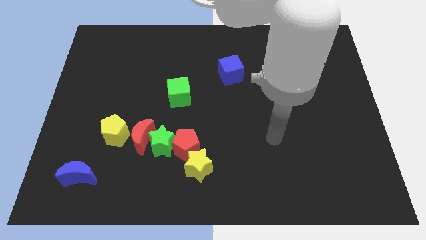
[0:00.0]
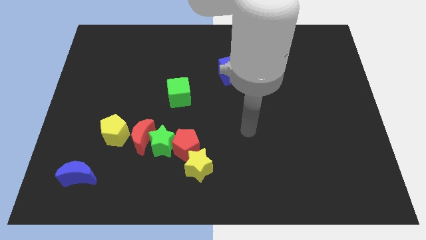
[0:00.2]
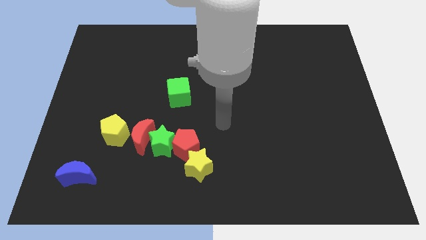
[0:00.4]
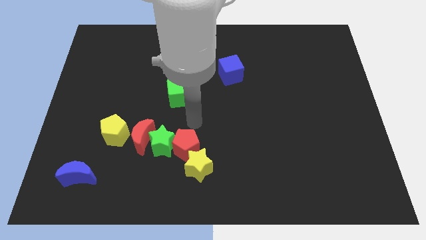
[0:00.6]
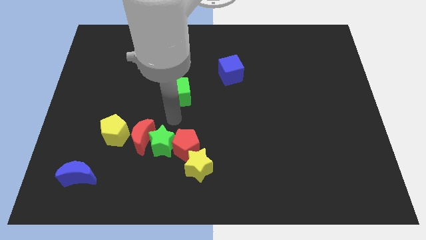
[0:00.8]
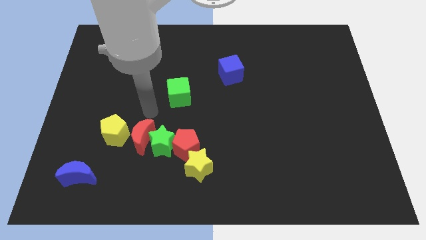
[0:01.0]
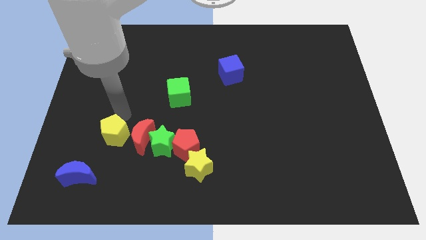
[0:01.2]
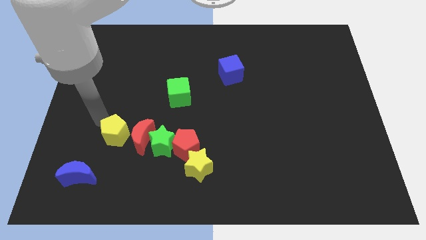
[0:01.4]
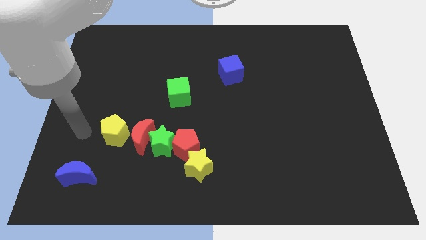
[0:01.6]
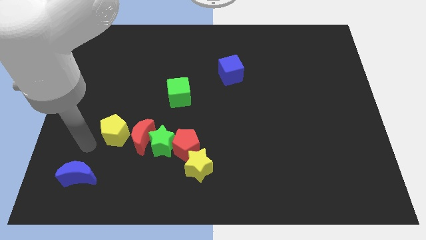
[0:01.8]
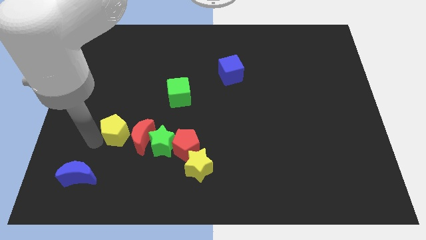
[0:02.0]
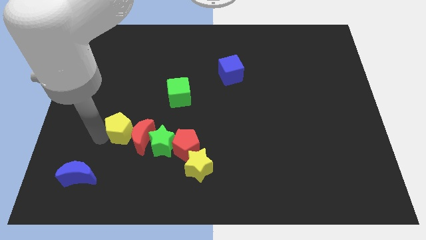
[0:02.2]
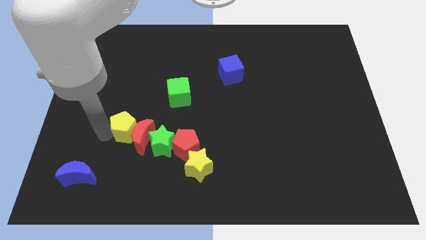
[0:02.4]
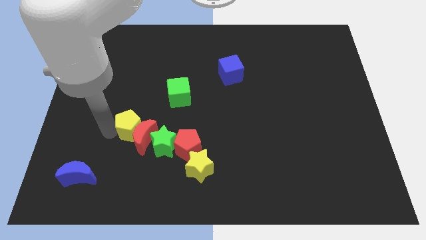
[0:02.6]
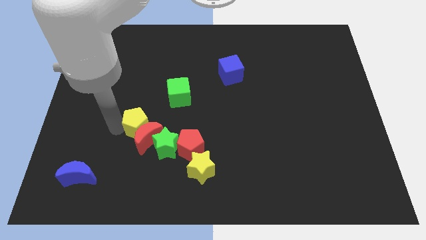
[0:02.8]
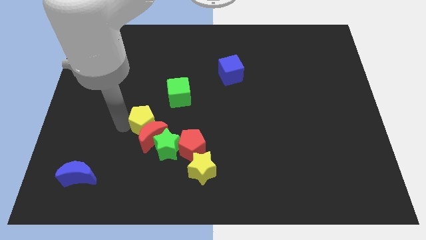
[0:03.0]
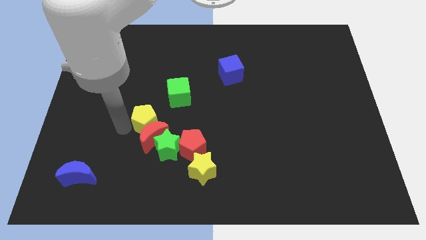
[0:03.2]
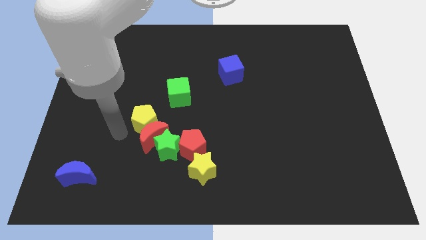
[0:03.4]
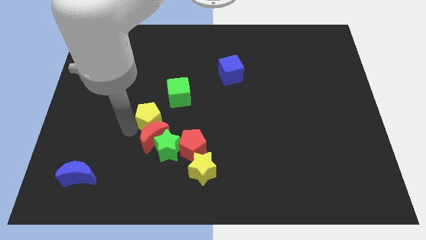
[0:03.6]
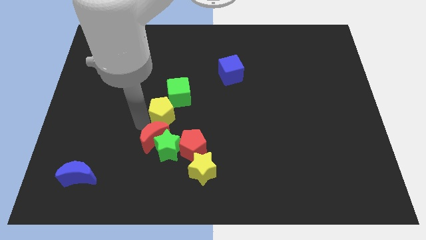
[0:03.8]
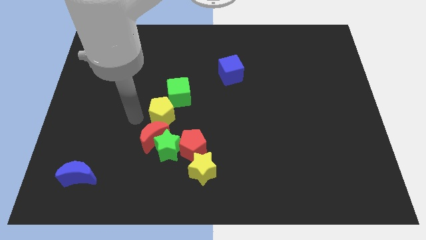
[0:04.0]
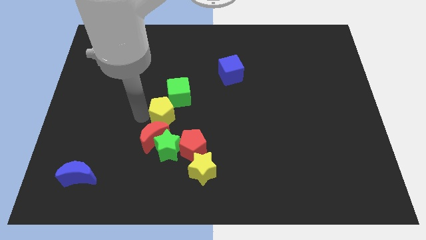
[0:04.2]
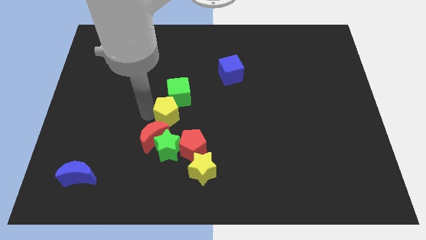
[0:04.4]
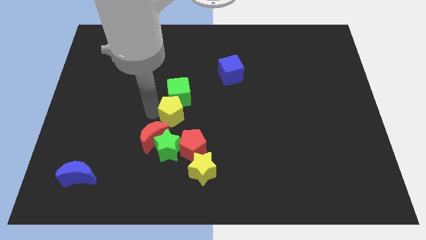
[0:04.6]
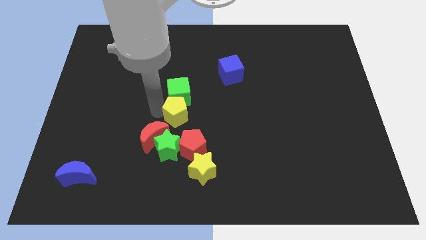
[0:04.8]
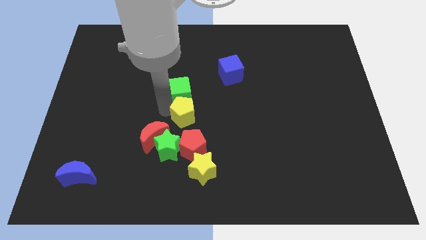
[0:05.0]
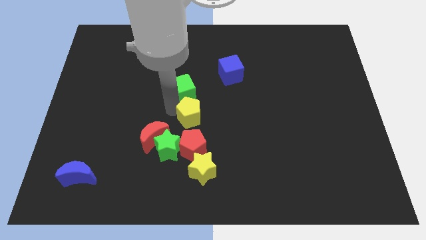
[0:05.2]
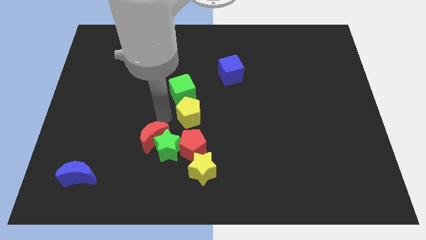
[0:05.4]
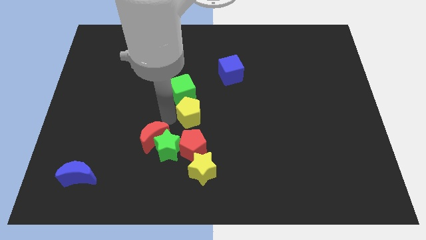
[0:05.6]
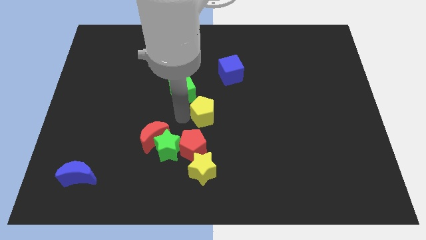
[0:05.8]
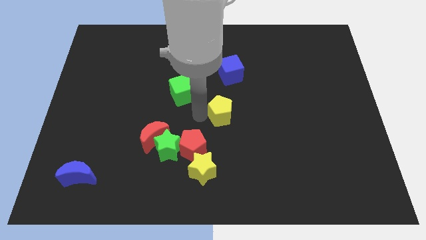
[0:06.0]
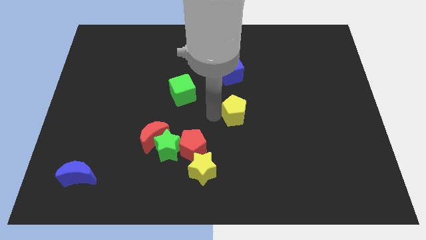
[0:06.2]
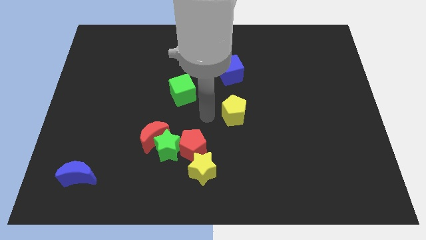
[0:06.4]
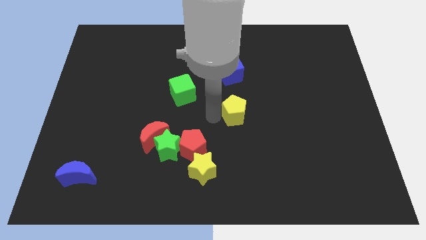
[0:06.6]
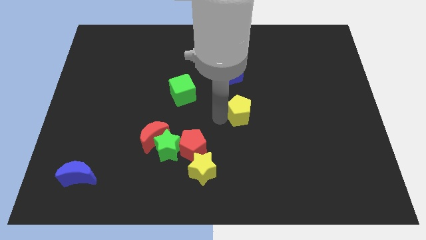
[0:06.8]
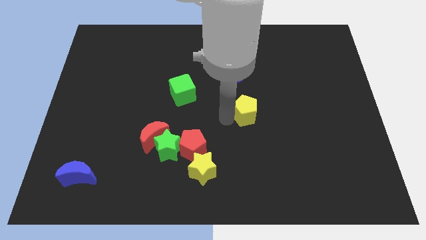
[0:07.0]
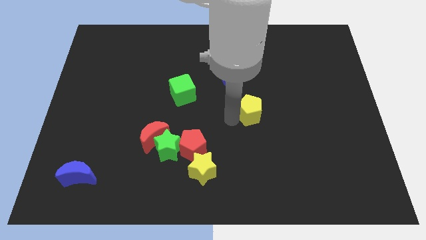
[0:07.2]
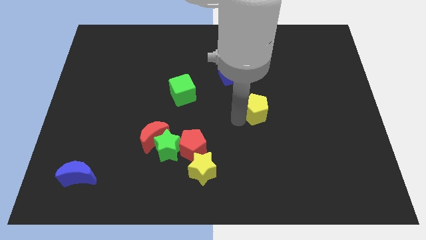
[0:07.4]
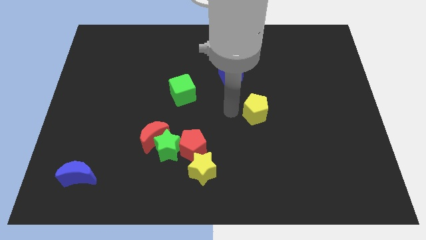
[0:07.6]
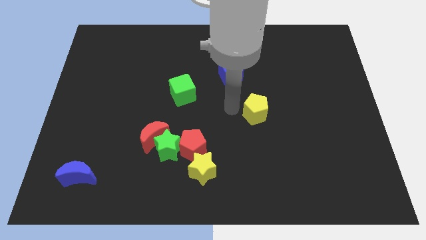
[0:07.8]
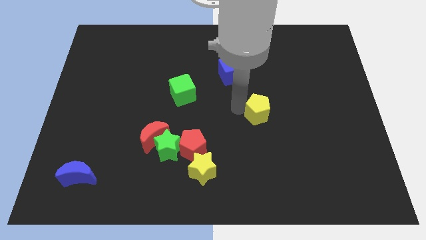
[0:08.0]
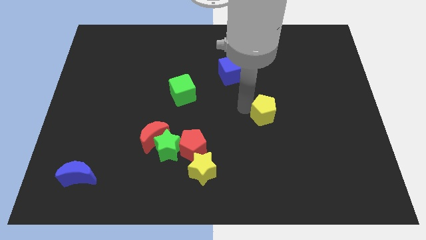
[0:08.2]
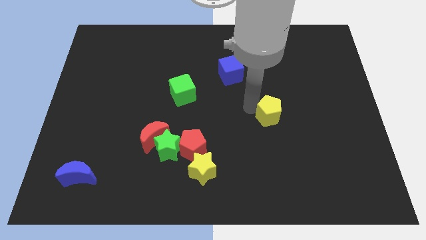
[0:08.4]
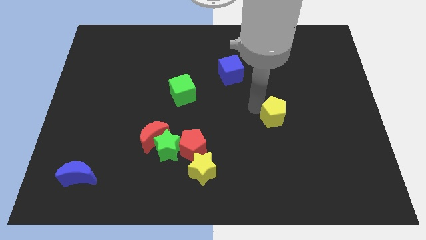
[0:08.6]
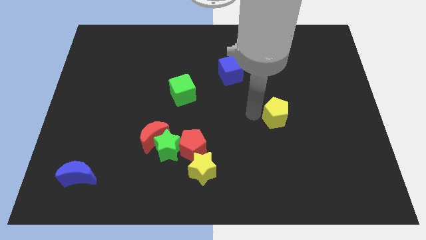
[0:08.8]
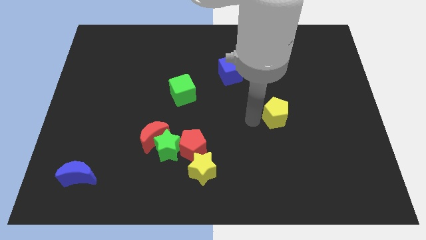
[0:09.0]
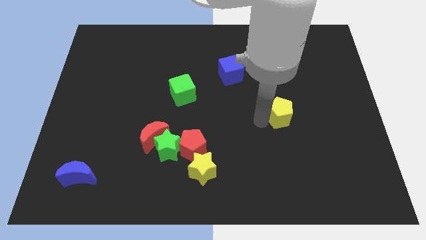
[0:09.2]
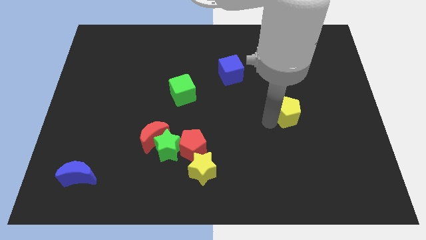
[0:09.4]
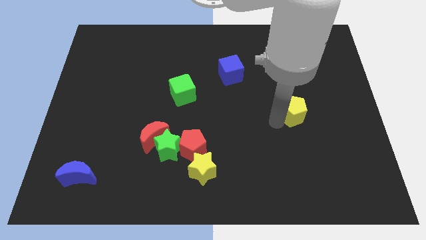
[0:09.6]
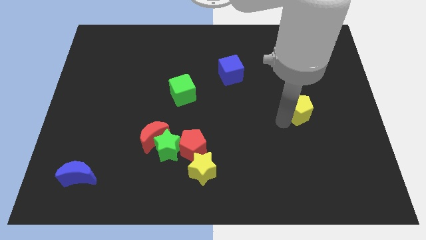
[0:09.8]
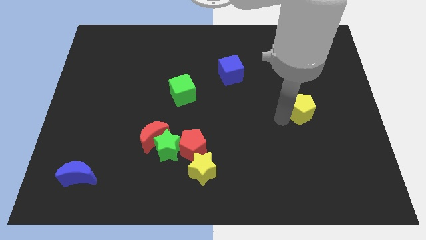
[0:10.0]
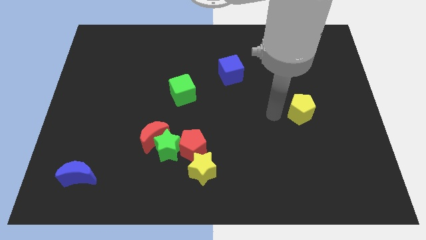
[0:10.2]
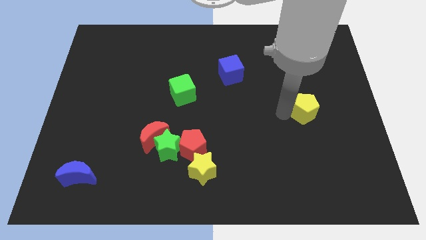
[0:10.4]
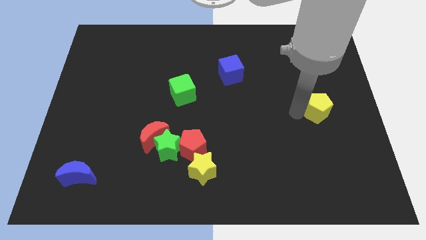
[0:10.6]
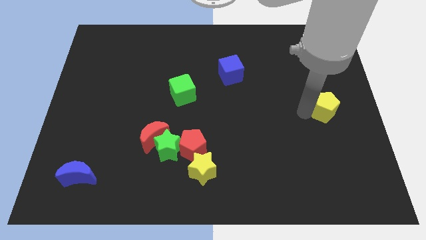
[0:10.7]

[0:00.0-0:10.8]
move the yellow pentagon to the center right

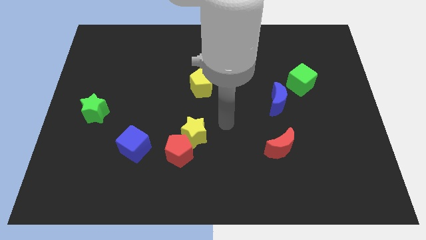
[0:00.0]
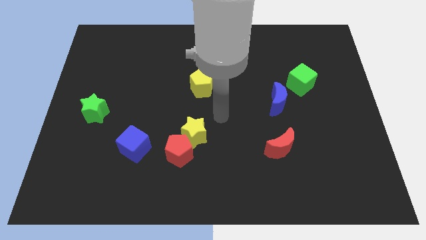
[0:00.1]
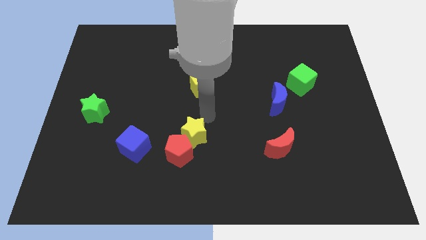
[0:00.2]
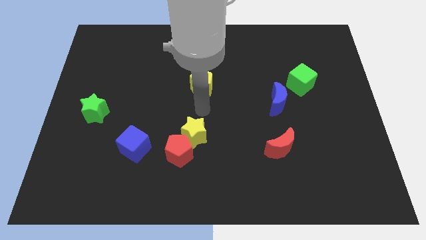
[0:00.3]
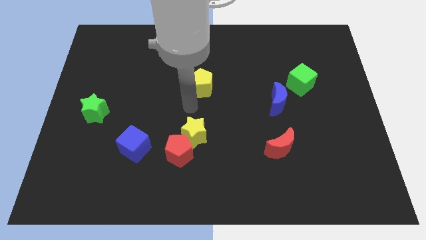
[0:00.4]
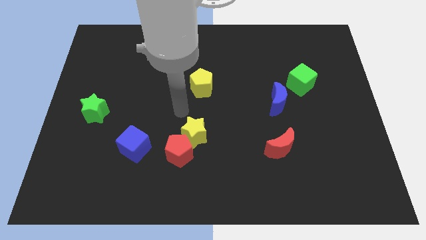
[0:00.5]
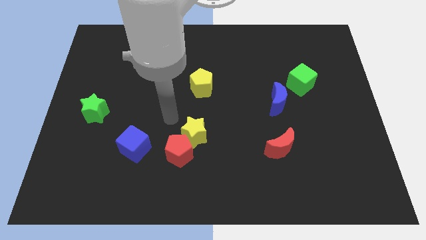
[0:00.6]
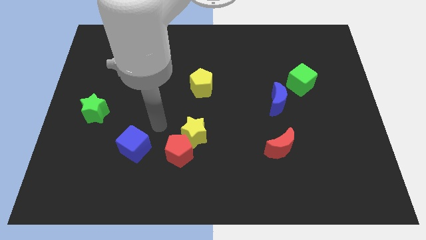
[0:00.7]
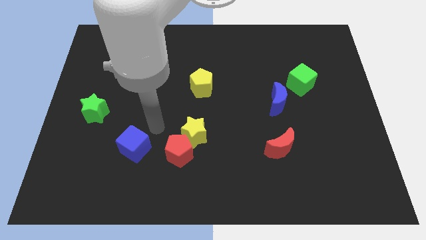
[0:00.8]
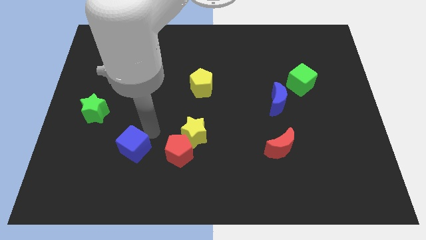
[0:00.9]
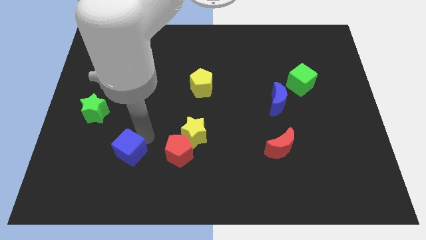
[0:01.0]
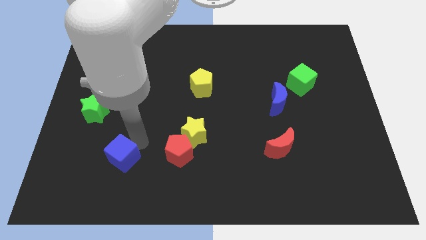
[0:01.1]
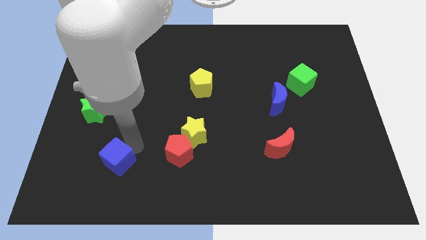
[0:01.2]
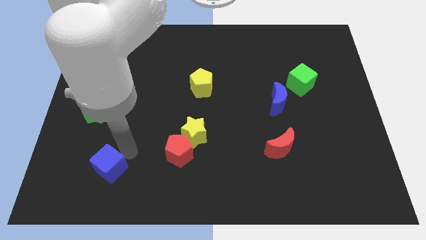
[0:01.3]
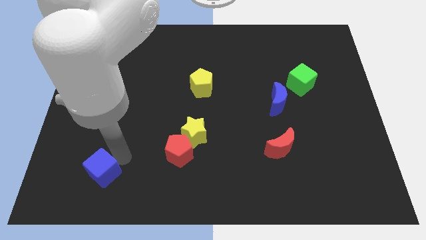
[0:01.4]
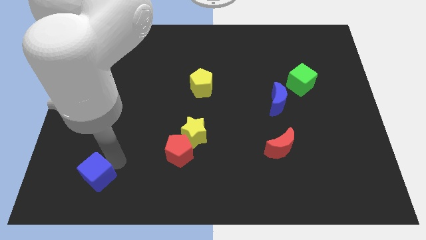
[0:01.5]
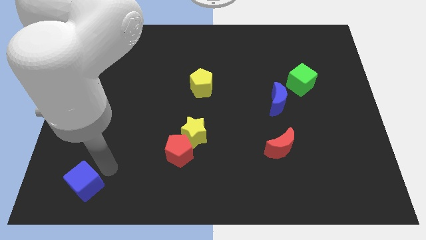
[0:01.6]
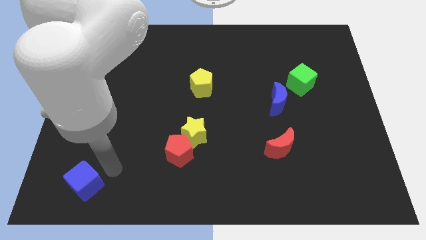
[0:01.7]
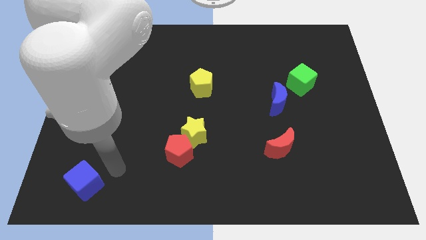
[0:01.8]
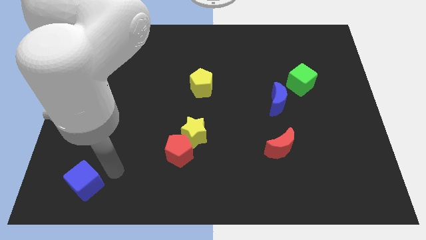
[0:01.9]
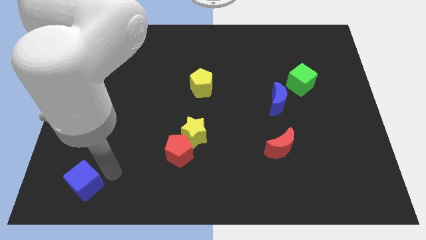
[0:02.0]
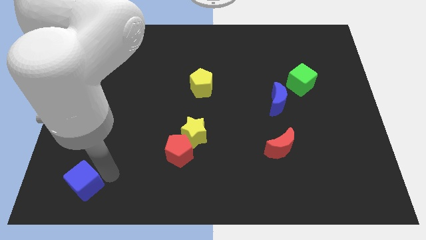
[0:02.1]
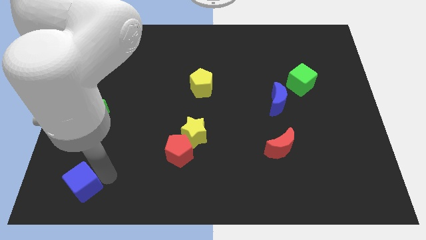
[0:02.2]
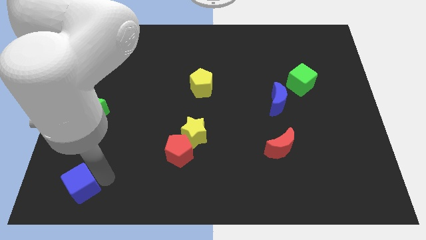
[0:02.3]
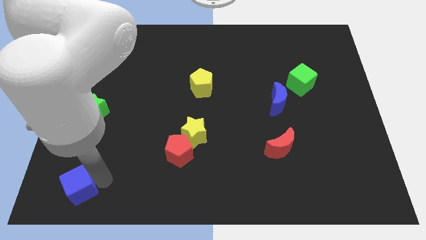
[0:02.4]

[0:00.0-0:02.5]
put the blue cube to the bottom left corner
